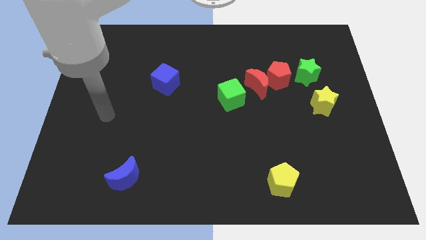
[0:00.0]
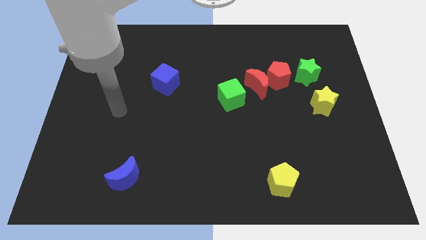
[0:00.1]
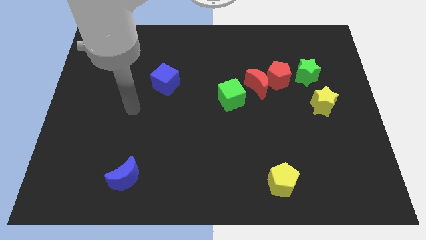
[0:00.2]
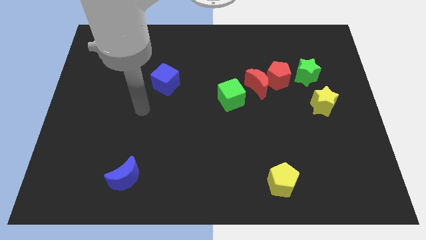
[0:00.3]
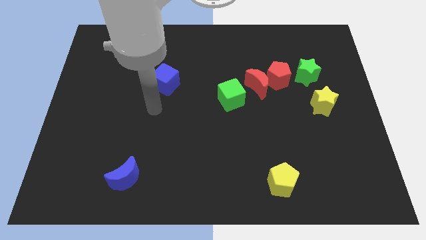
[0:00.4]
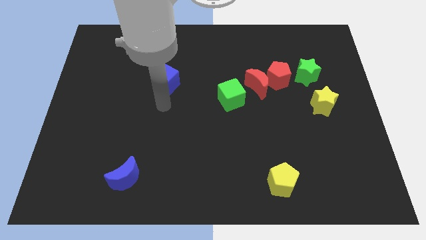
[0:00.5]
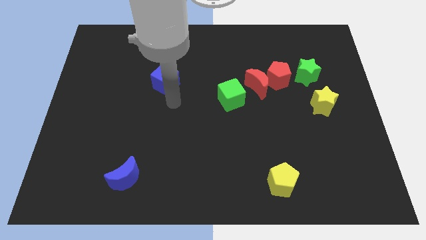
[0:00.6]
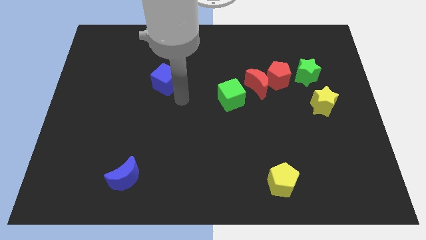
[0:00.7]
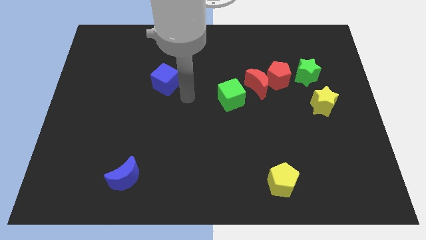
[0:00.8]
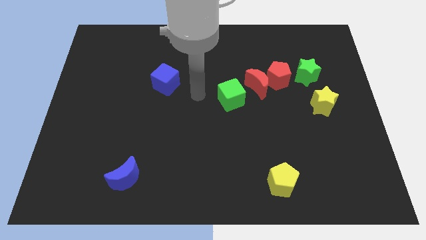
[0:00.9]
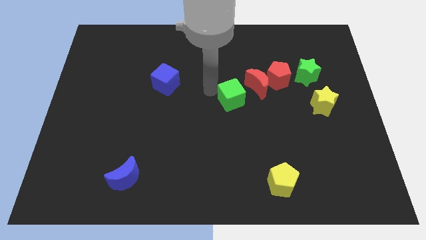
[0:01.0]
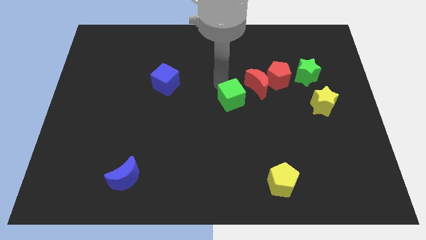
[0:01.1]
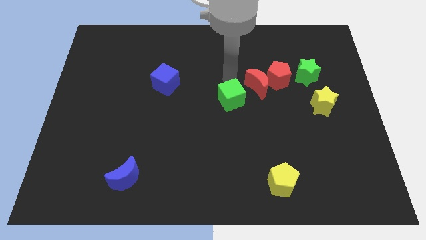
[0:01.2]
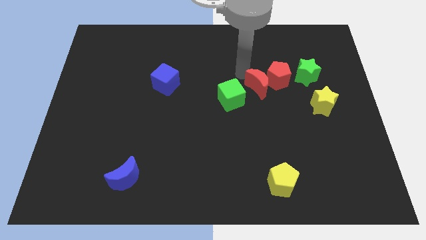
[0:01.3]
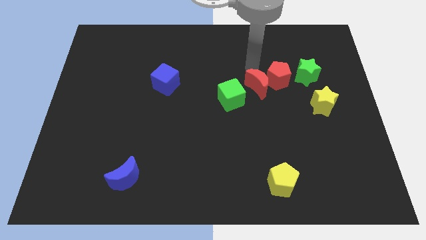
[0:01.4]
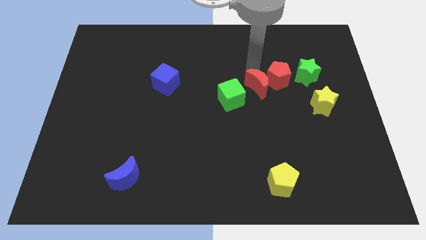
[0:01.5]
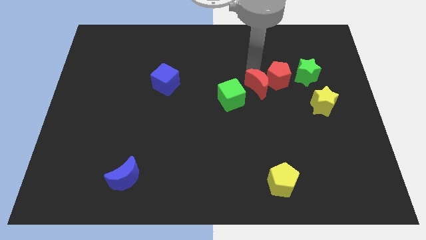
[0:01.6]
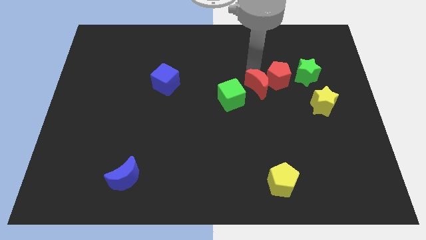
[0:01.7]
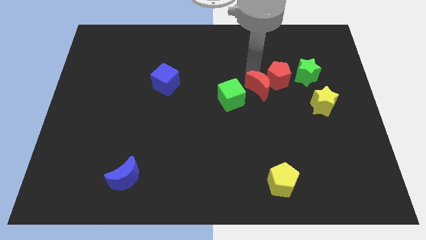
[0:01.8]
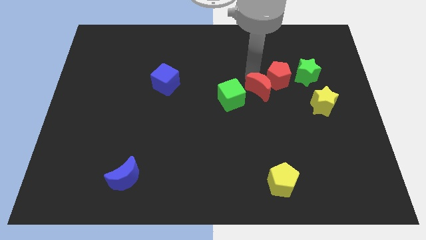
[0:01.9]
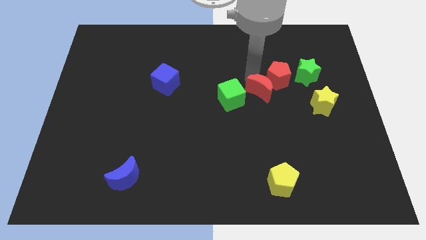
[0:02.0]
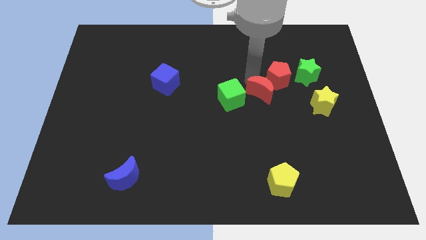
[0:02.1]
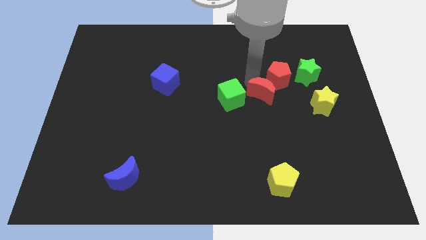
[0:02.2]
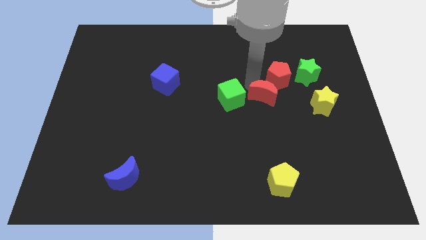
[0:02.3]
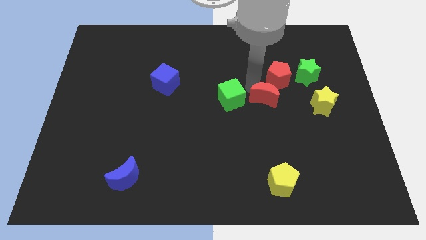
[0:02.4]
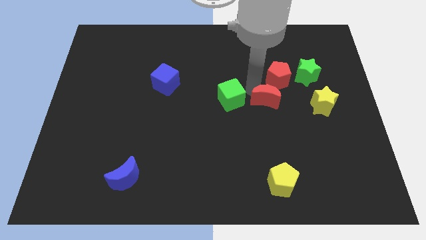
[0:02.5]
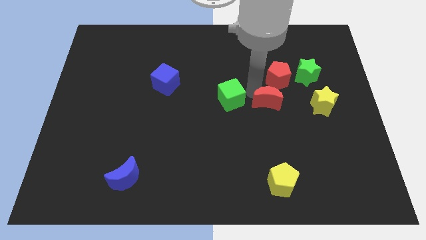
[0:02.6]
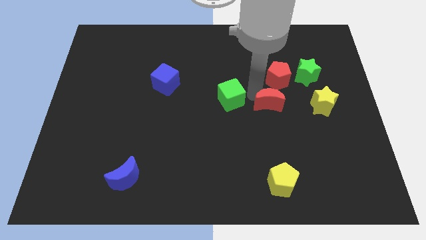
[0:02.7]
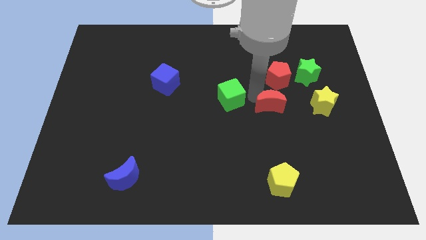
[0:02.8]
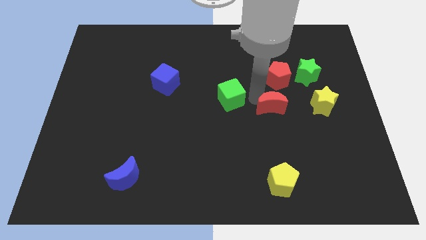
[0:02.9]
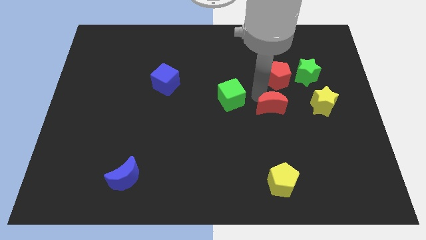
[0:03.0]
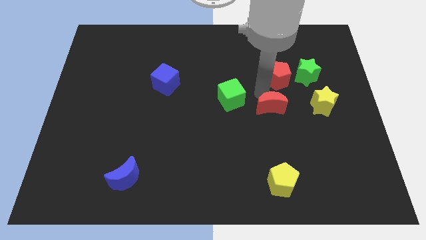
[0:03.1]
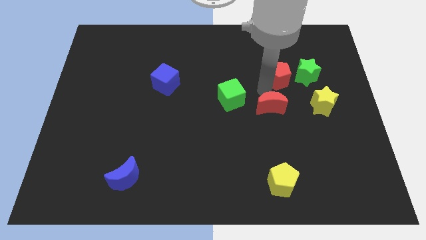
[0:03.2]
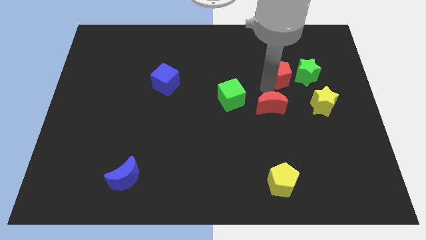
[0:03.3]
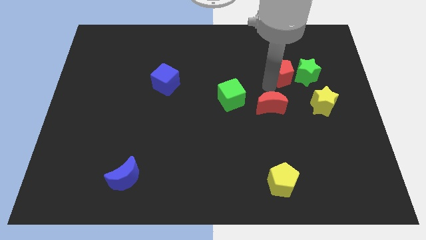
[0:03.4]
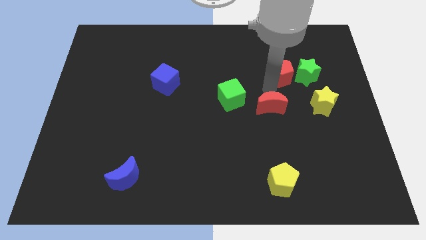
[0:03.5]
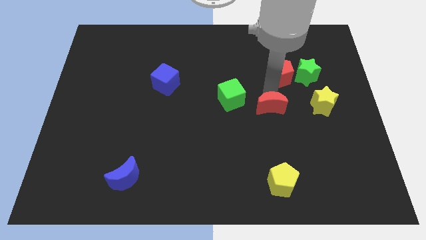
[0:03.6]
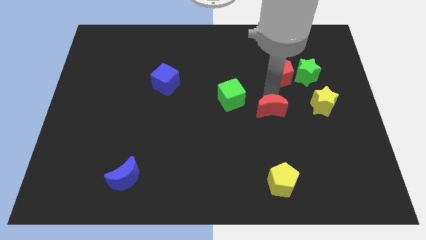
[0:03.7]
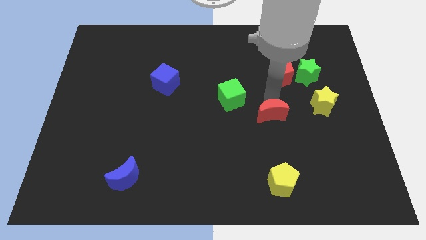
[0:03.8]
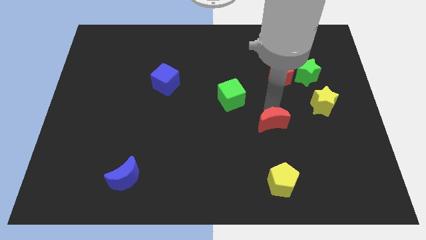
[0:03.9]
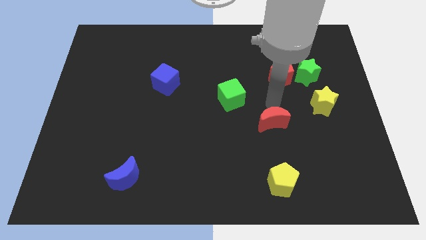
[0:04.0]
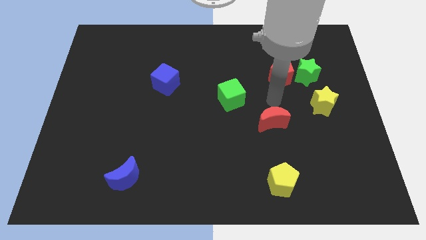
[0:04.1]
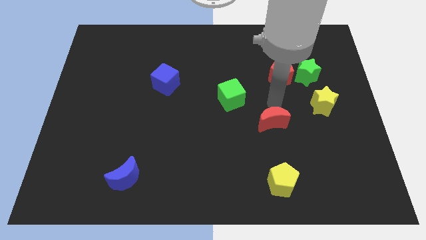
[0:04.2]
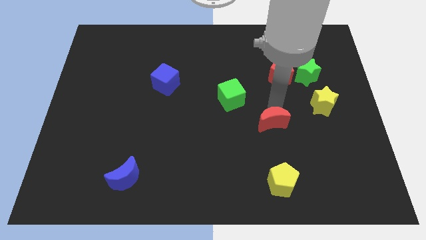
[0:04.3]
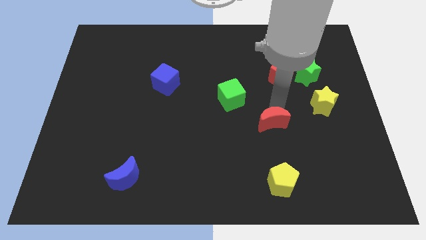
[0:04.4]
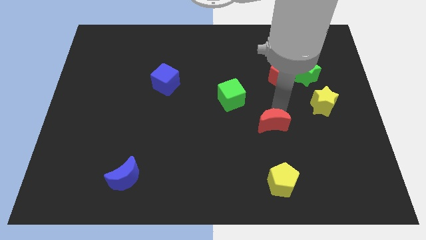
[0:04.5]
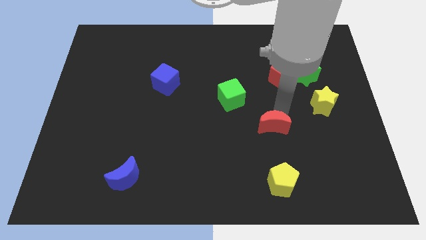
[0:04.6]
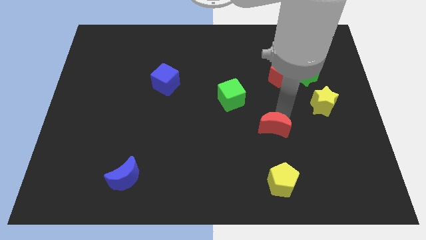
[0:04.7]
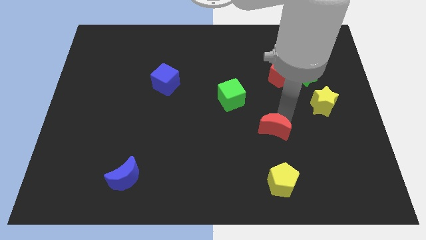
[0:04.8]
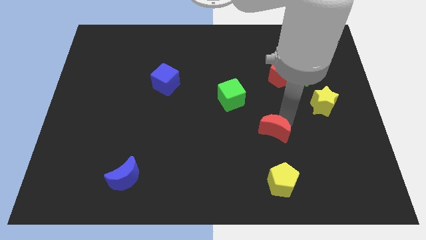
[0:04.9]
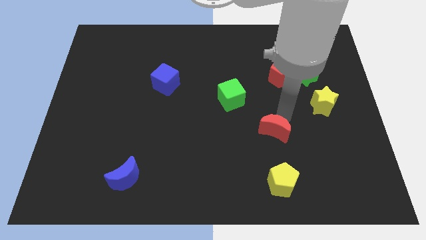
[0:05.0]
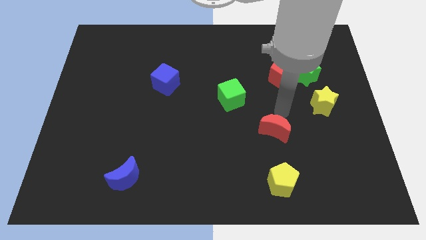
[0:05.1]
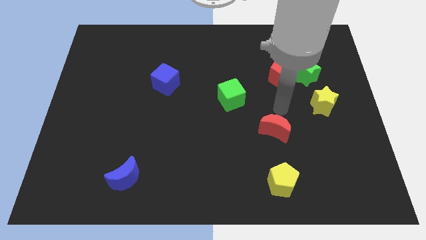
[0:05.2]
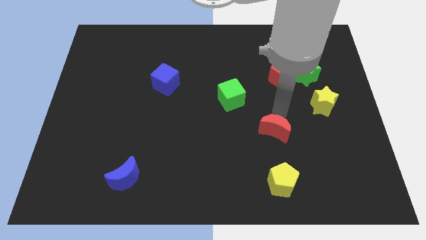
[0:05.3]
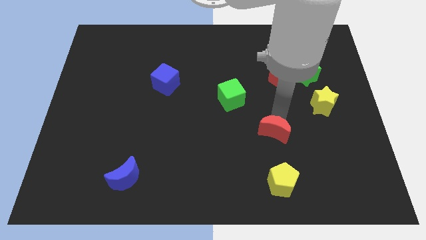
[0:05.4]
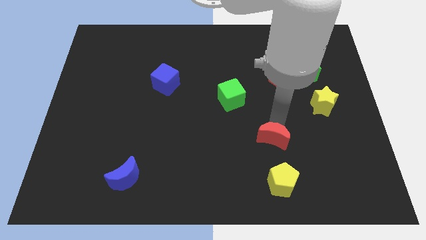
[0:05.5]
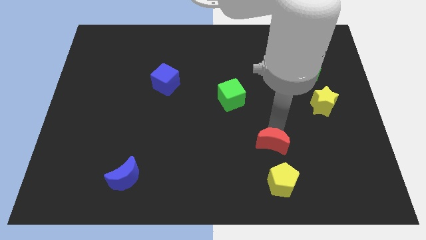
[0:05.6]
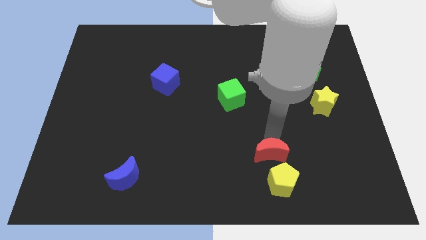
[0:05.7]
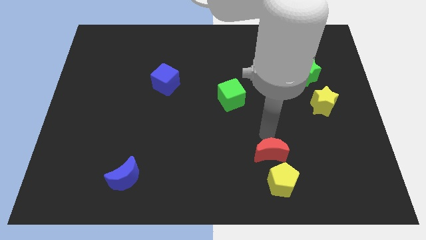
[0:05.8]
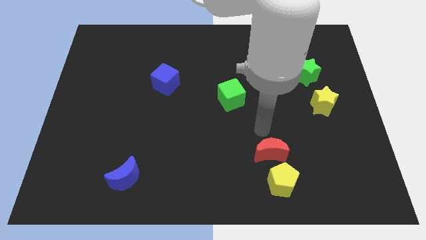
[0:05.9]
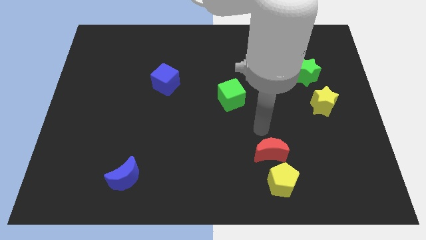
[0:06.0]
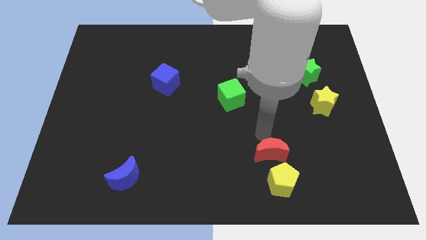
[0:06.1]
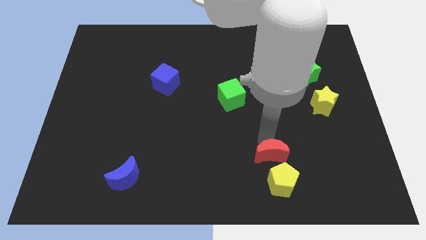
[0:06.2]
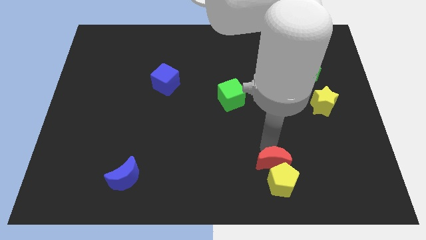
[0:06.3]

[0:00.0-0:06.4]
push the red moon to the yellow pentagon

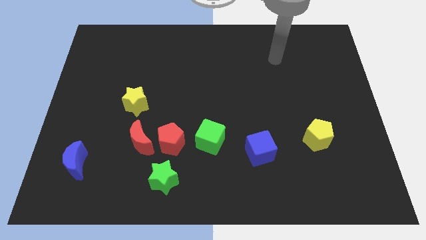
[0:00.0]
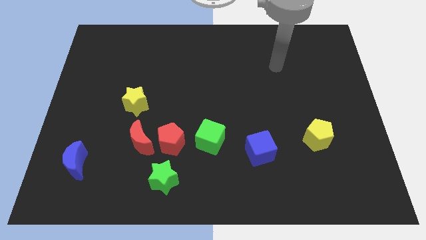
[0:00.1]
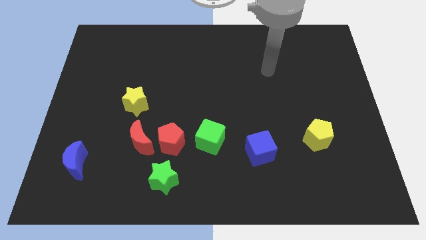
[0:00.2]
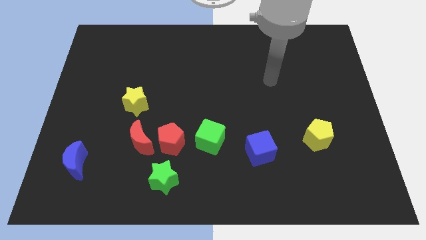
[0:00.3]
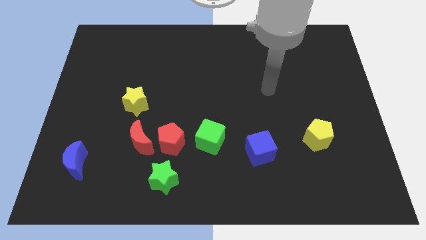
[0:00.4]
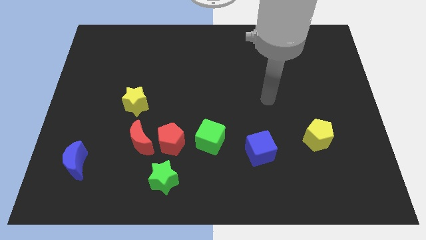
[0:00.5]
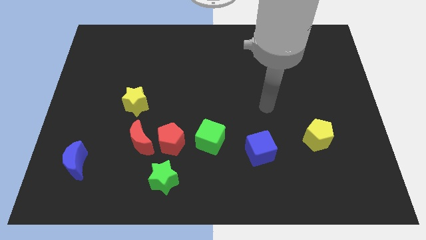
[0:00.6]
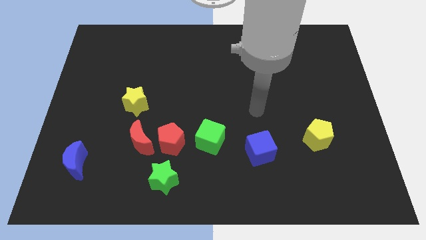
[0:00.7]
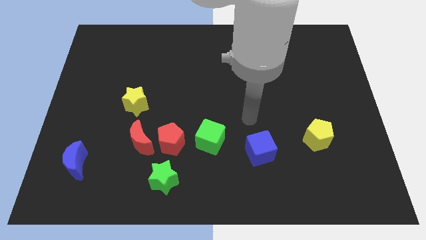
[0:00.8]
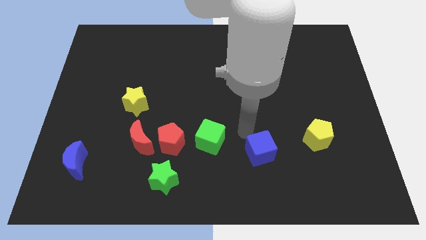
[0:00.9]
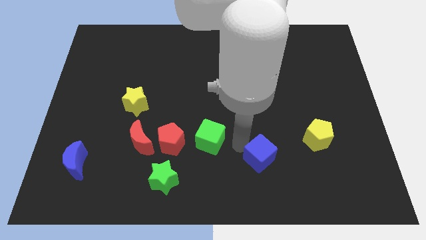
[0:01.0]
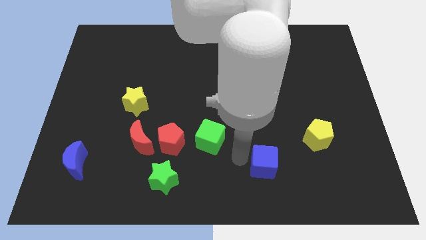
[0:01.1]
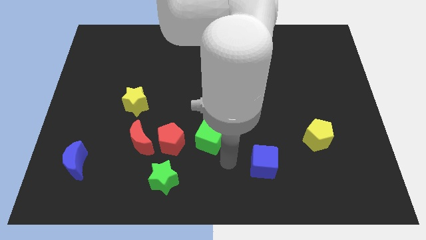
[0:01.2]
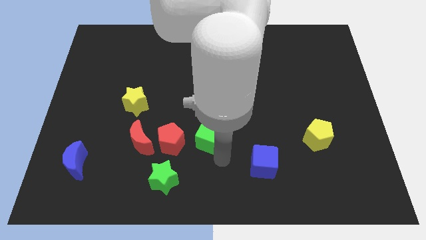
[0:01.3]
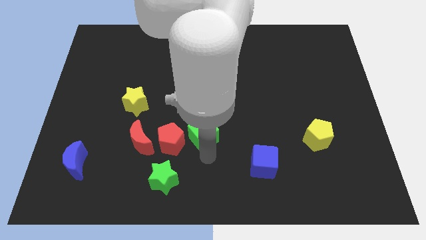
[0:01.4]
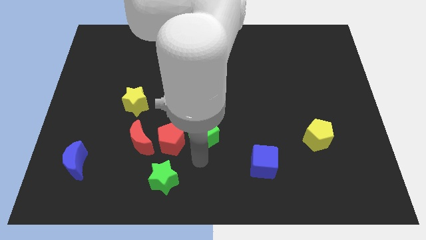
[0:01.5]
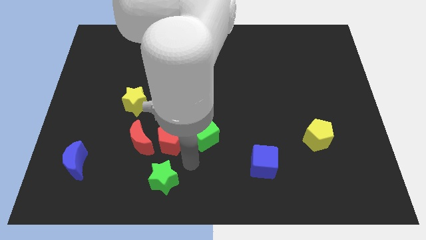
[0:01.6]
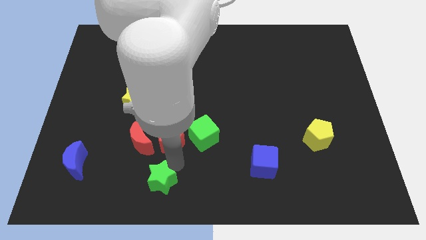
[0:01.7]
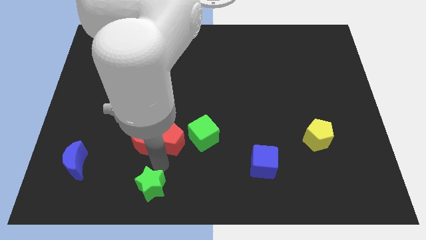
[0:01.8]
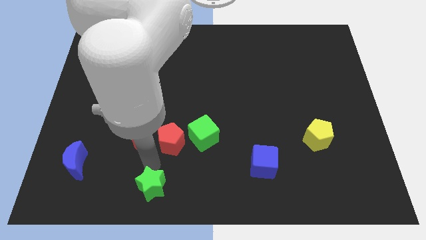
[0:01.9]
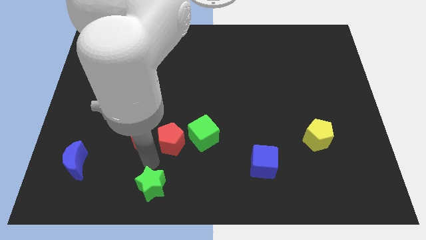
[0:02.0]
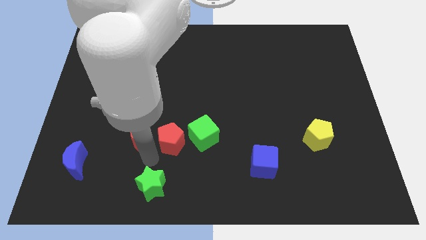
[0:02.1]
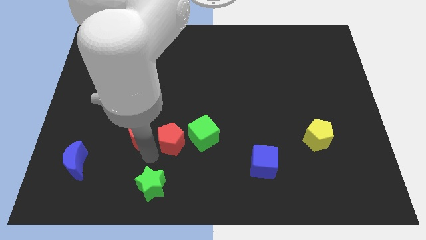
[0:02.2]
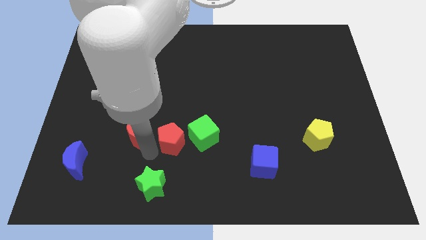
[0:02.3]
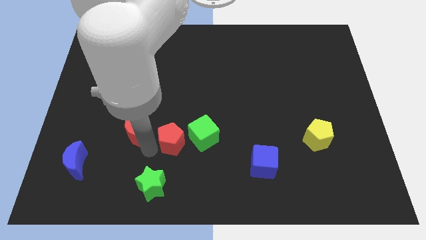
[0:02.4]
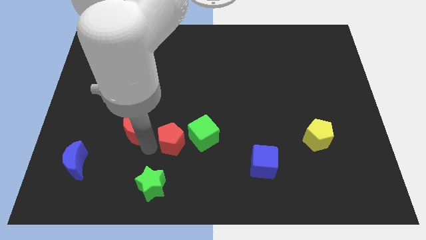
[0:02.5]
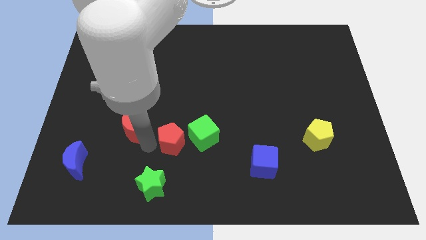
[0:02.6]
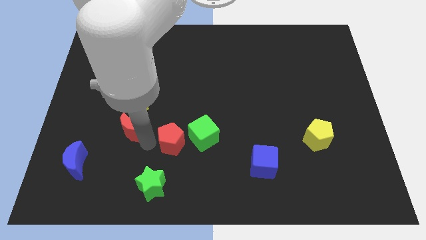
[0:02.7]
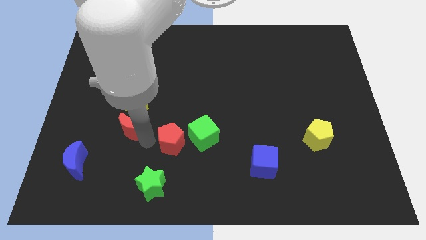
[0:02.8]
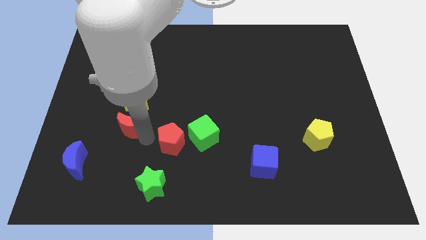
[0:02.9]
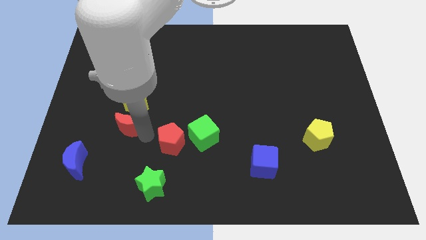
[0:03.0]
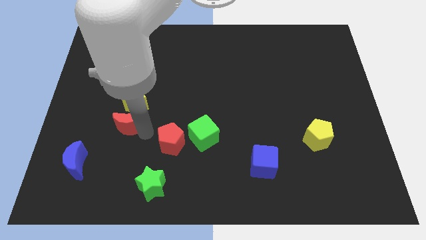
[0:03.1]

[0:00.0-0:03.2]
move the red moon towards the yellow star
